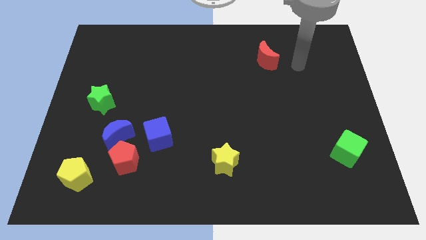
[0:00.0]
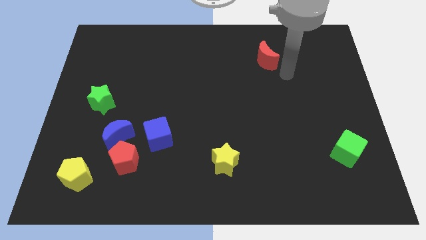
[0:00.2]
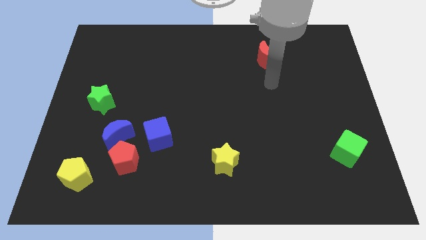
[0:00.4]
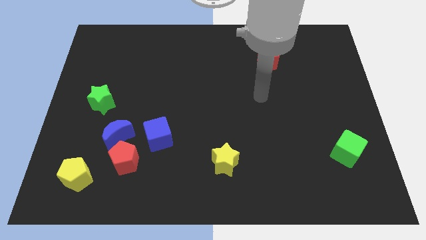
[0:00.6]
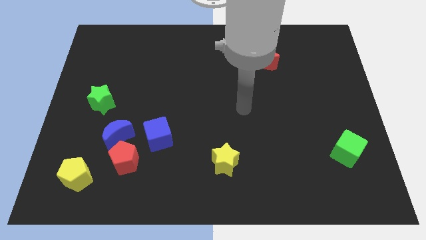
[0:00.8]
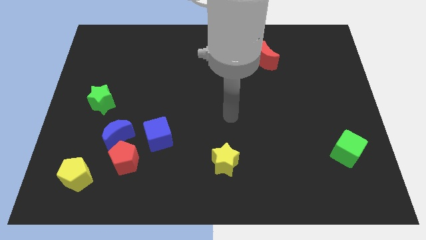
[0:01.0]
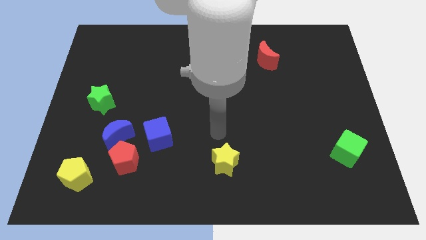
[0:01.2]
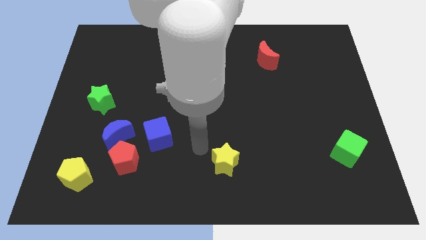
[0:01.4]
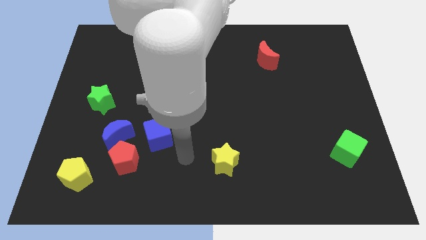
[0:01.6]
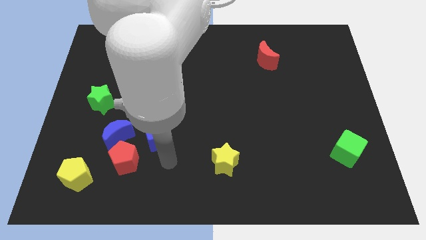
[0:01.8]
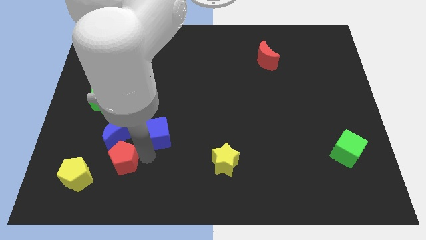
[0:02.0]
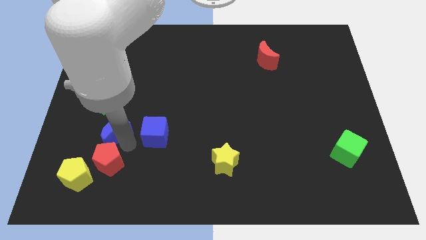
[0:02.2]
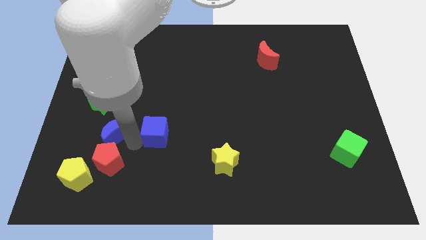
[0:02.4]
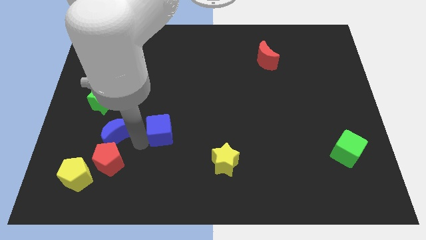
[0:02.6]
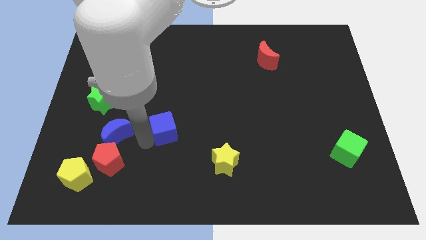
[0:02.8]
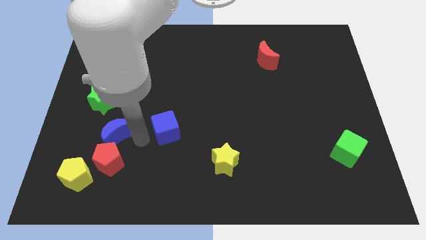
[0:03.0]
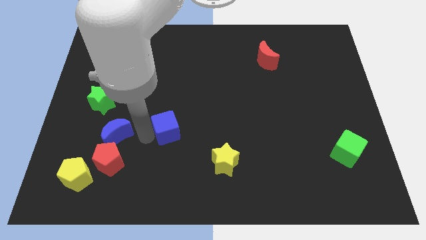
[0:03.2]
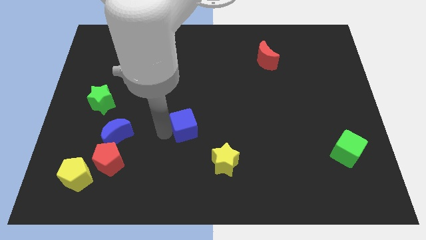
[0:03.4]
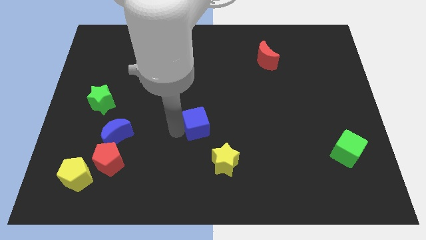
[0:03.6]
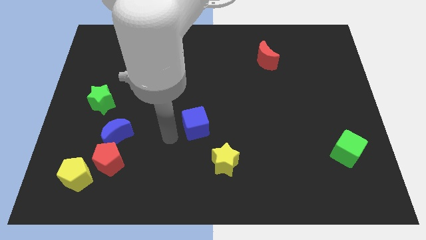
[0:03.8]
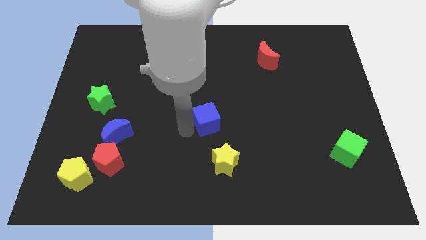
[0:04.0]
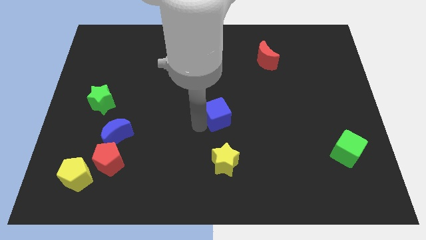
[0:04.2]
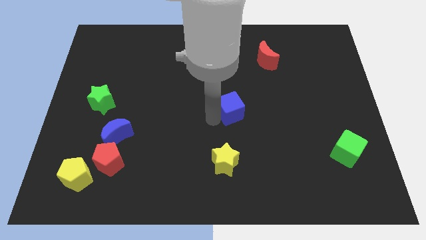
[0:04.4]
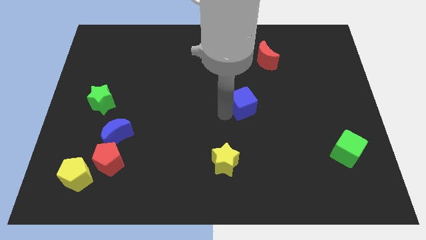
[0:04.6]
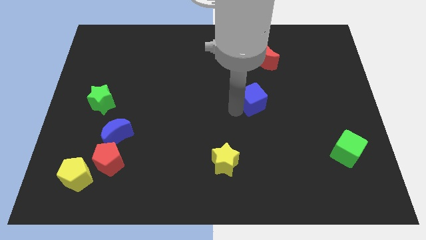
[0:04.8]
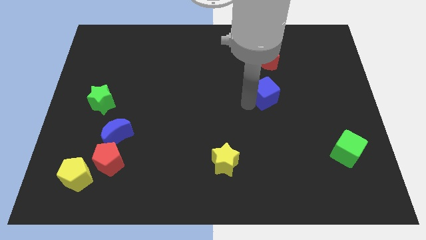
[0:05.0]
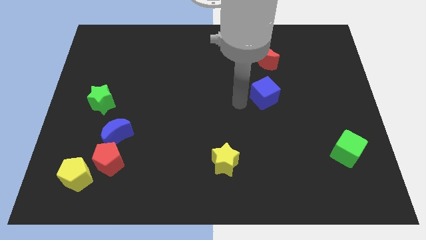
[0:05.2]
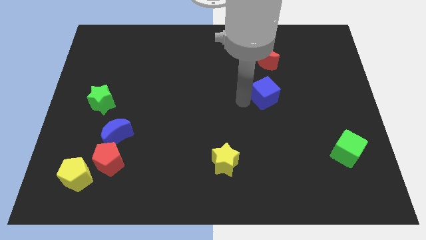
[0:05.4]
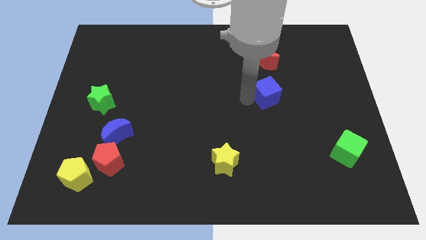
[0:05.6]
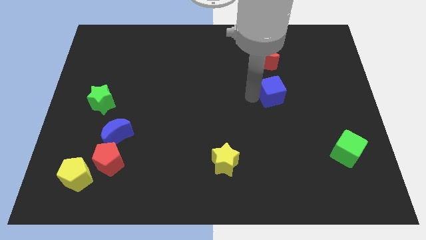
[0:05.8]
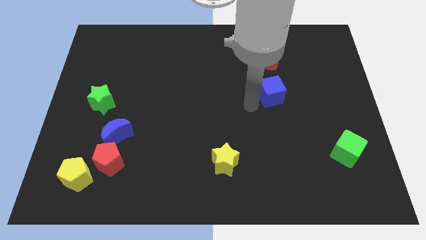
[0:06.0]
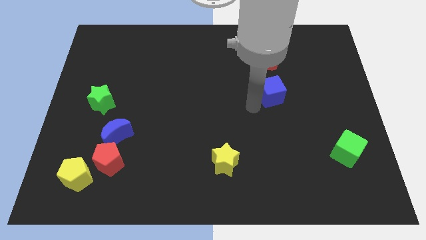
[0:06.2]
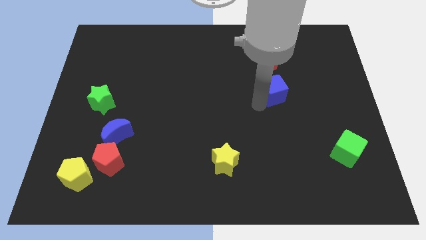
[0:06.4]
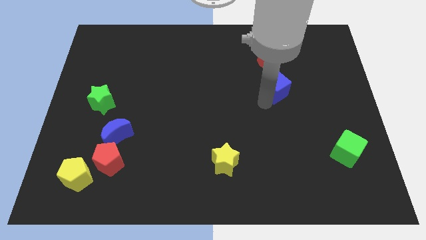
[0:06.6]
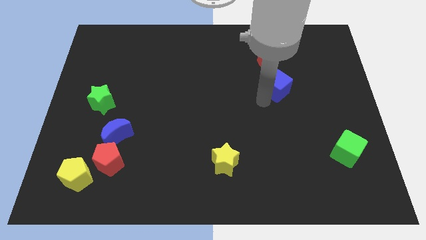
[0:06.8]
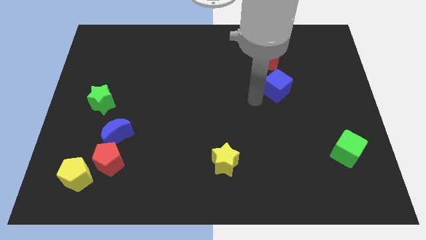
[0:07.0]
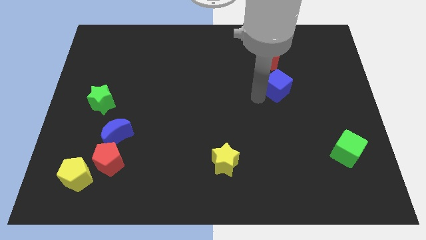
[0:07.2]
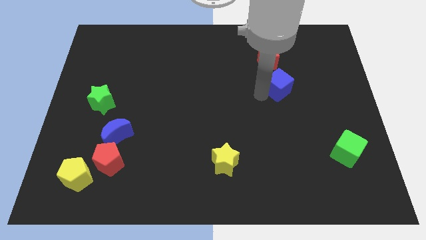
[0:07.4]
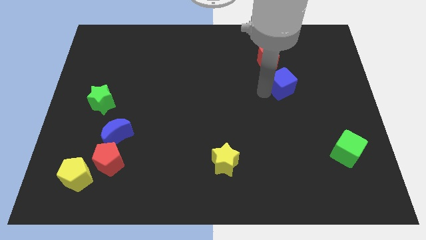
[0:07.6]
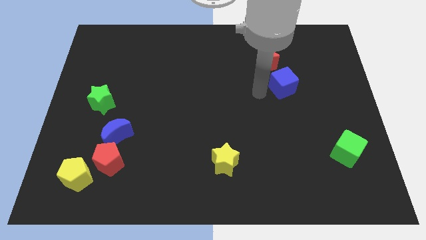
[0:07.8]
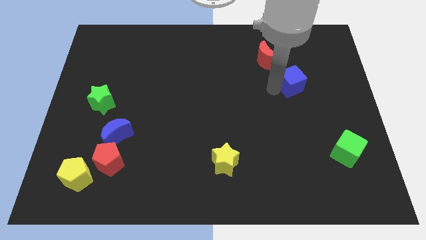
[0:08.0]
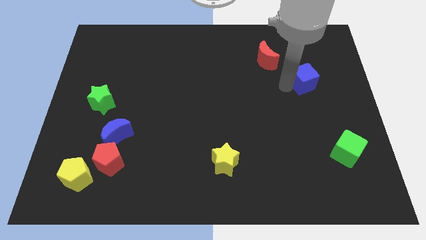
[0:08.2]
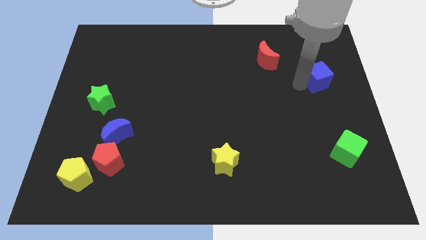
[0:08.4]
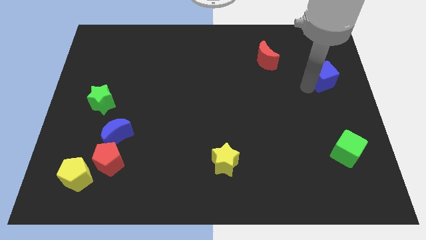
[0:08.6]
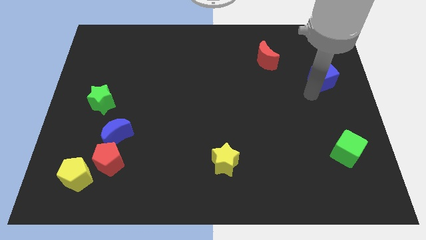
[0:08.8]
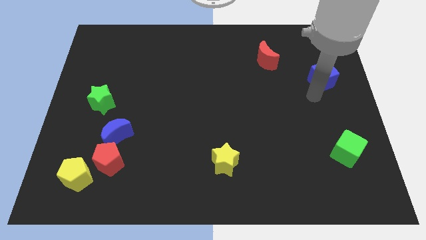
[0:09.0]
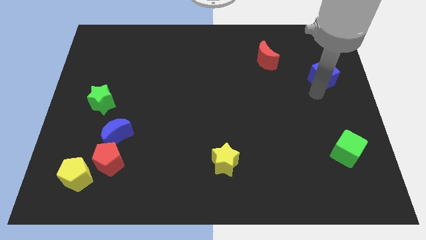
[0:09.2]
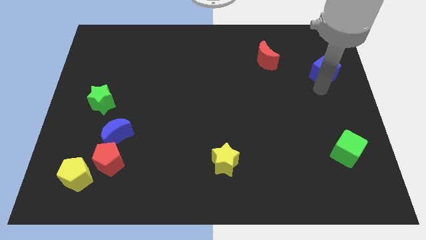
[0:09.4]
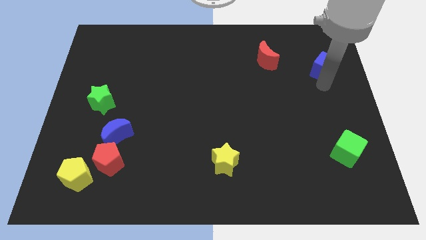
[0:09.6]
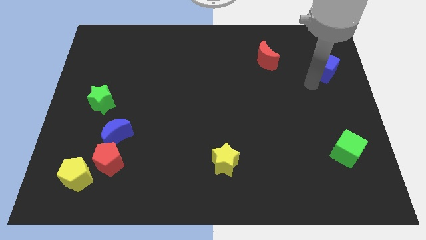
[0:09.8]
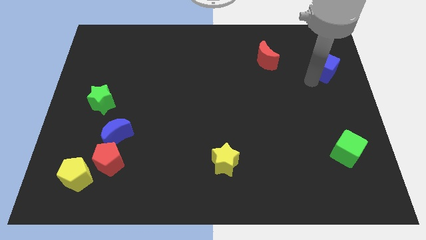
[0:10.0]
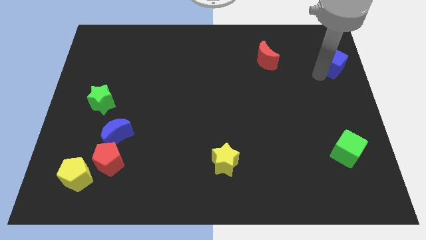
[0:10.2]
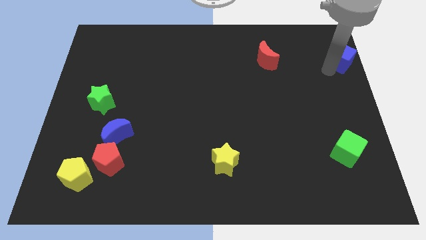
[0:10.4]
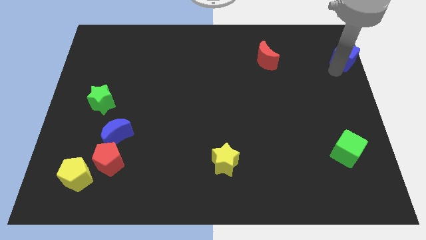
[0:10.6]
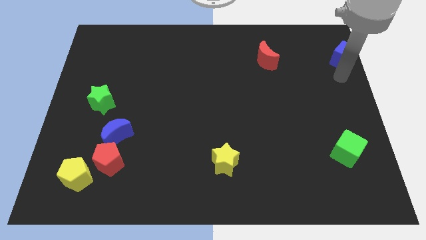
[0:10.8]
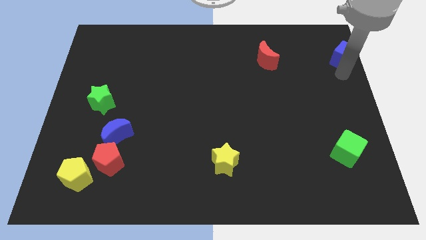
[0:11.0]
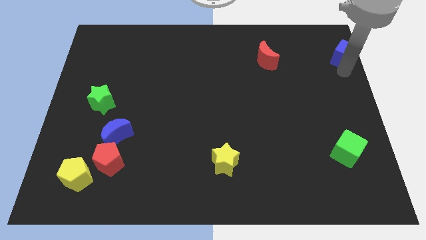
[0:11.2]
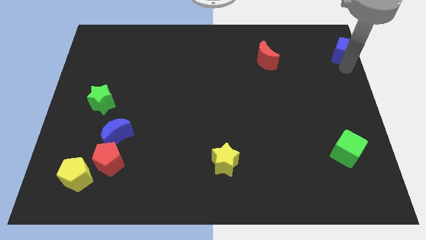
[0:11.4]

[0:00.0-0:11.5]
slide the blue cube to the top right of the board

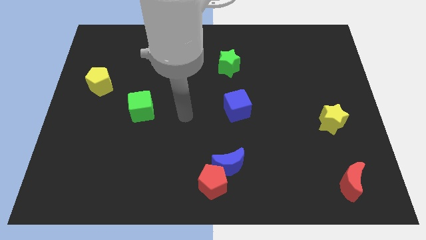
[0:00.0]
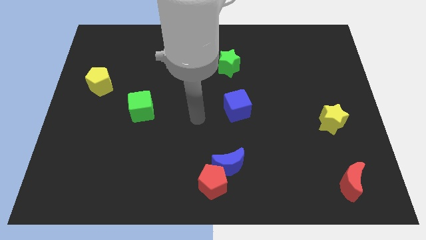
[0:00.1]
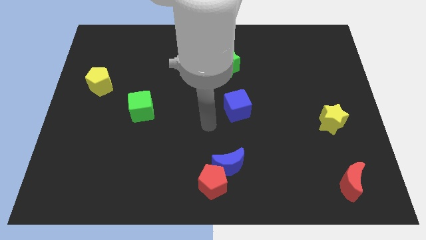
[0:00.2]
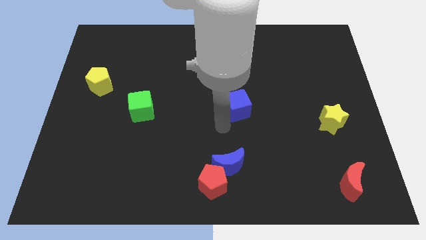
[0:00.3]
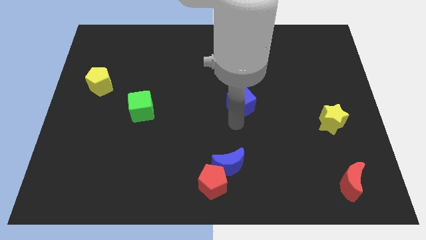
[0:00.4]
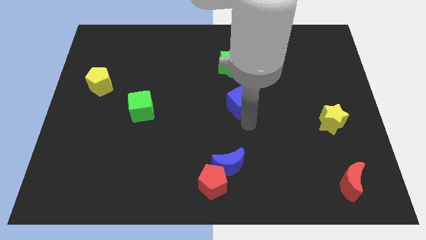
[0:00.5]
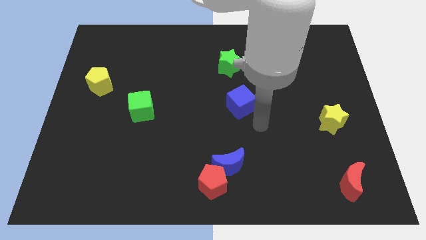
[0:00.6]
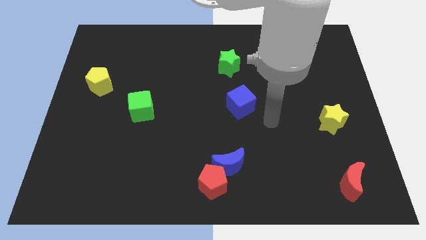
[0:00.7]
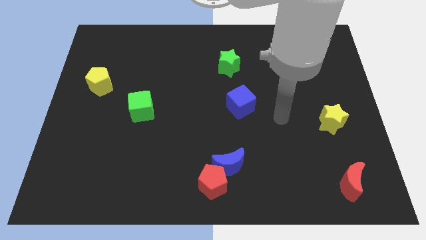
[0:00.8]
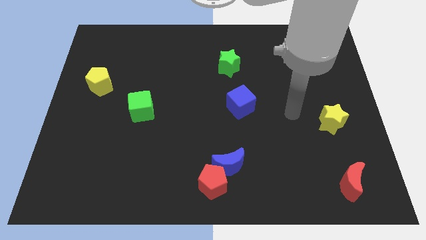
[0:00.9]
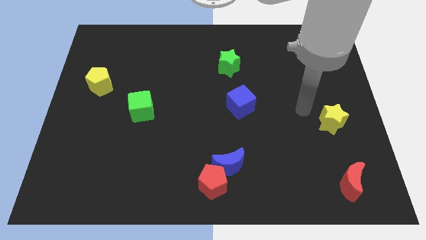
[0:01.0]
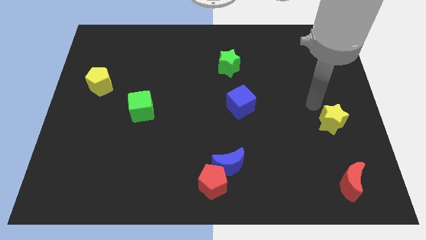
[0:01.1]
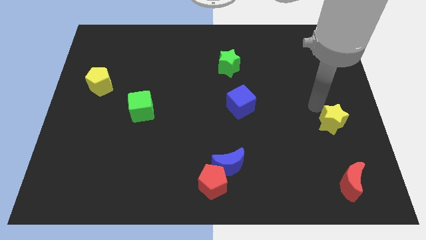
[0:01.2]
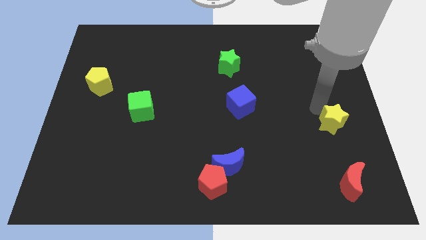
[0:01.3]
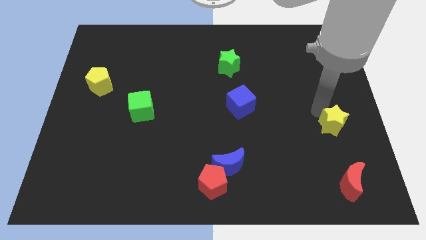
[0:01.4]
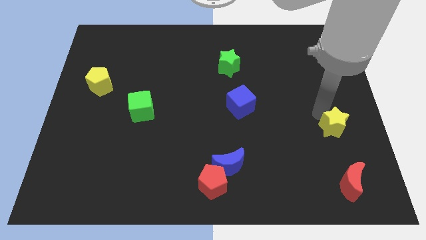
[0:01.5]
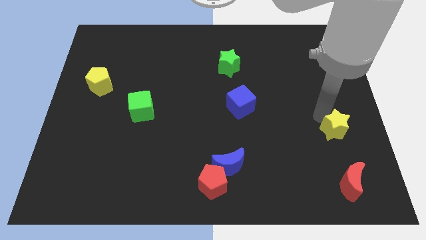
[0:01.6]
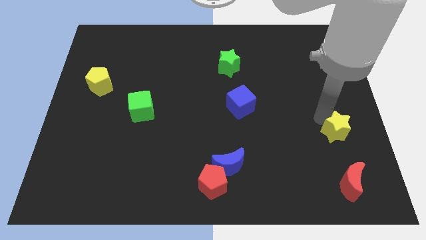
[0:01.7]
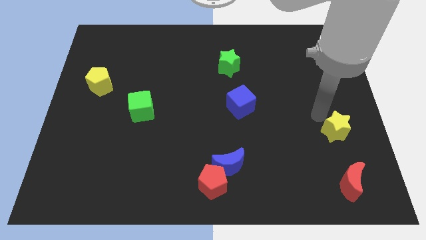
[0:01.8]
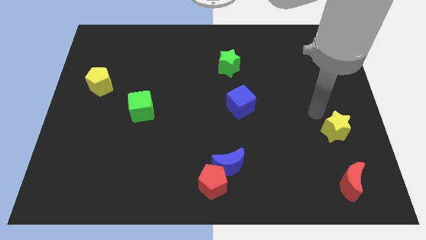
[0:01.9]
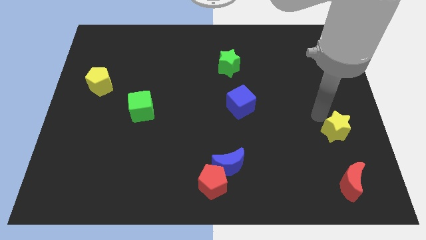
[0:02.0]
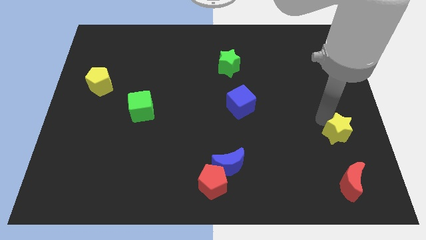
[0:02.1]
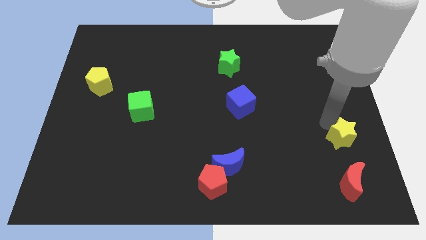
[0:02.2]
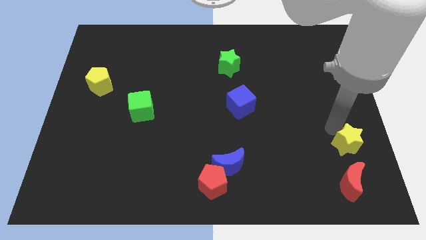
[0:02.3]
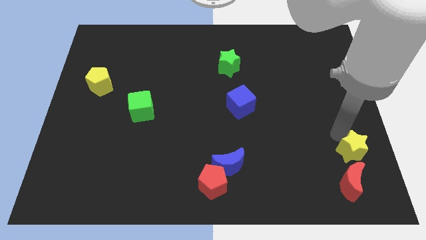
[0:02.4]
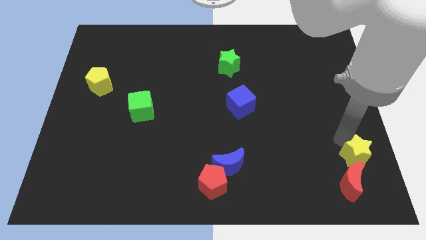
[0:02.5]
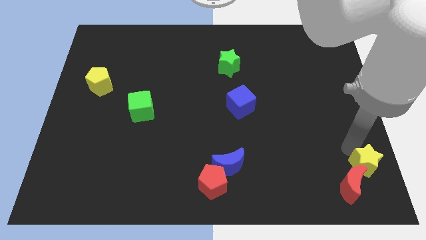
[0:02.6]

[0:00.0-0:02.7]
push the yellow star to the bottom right of the board
